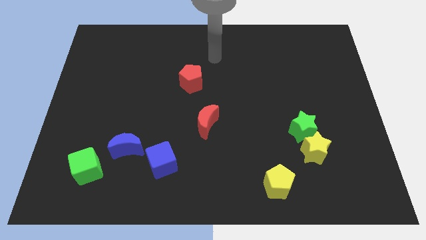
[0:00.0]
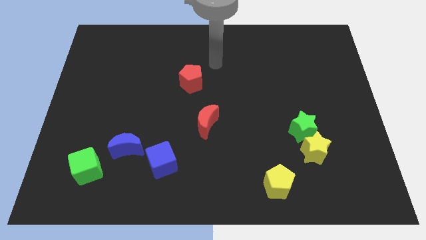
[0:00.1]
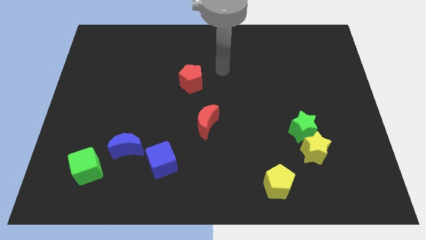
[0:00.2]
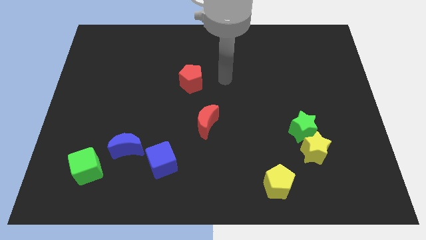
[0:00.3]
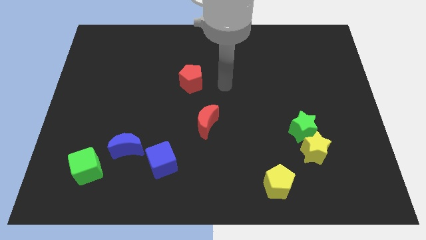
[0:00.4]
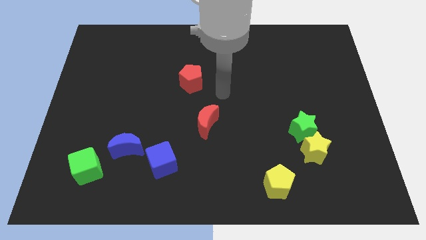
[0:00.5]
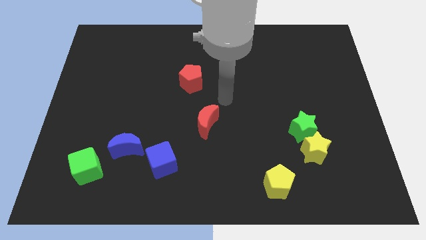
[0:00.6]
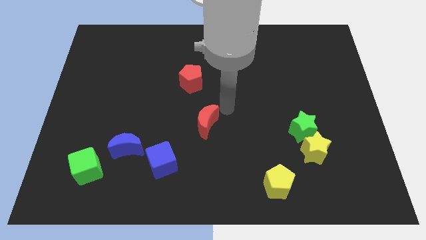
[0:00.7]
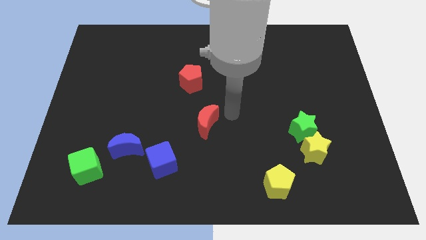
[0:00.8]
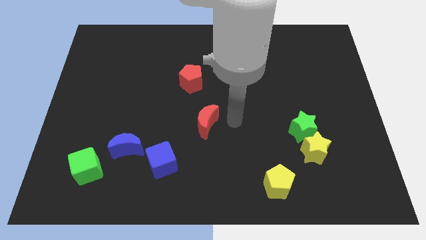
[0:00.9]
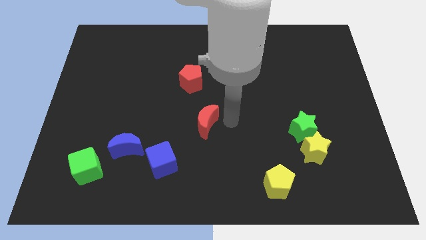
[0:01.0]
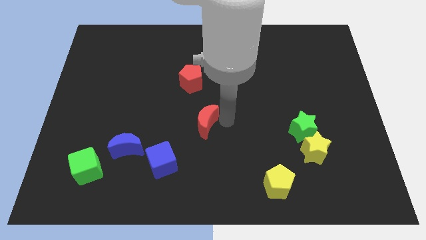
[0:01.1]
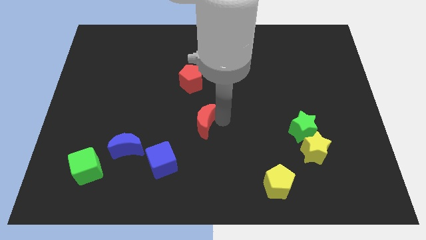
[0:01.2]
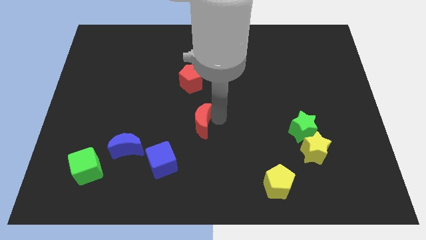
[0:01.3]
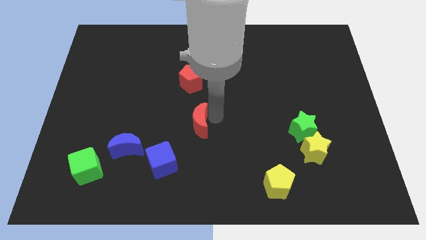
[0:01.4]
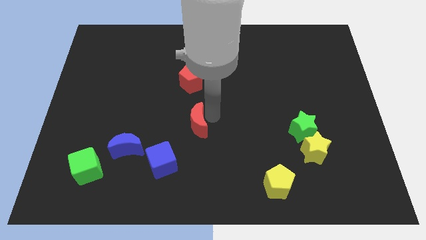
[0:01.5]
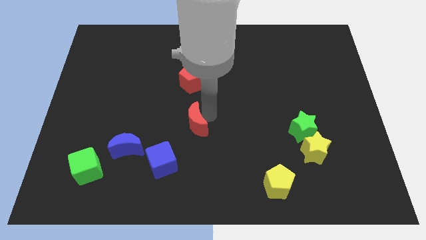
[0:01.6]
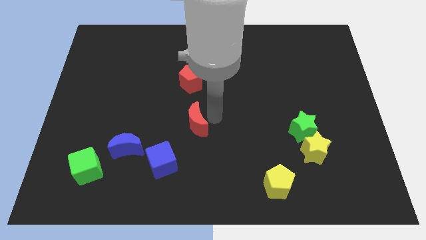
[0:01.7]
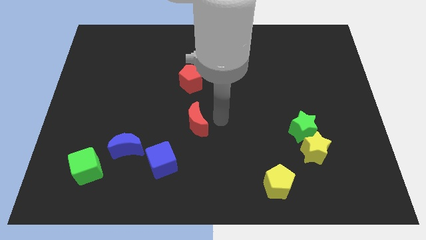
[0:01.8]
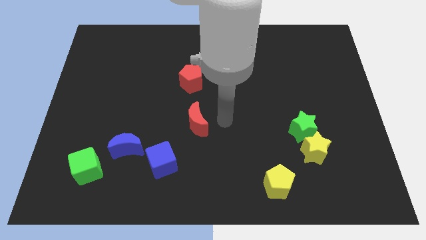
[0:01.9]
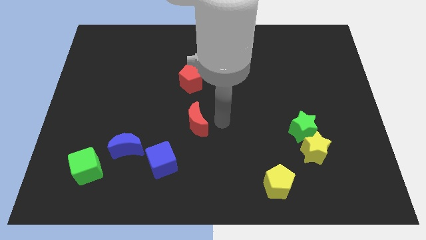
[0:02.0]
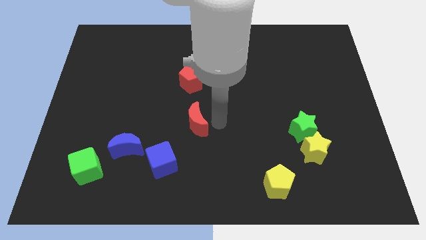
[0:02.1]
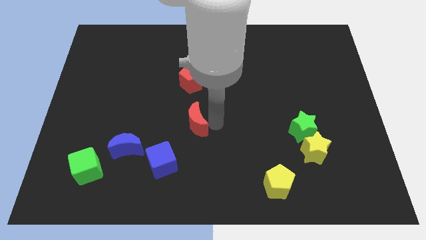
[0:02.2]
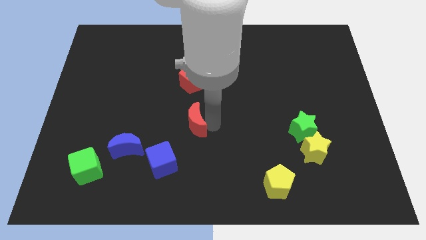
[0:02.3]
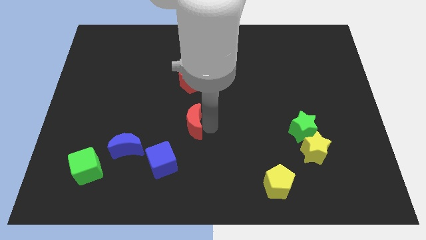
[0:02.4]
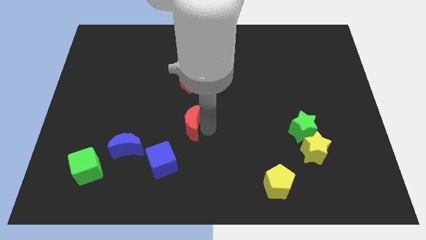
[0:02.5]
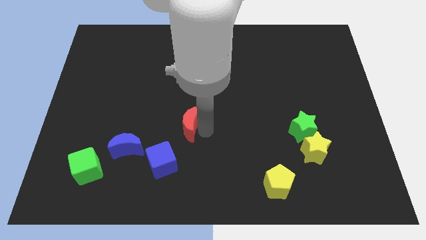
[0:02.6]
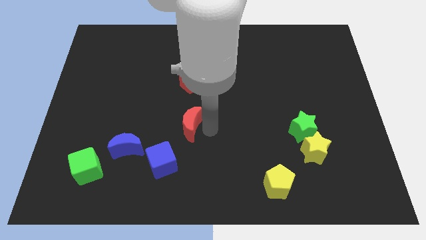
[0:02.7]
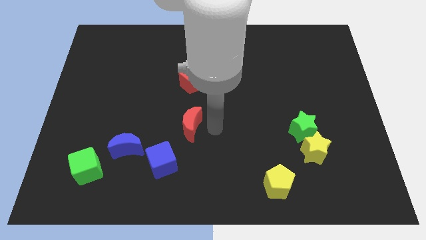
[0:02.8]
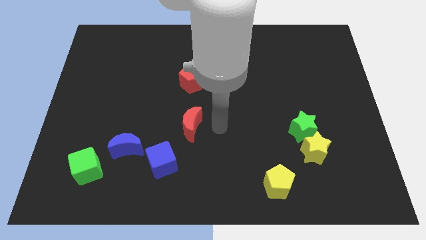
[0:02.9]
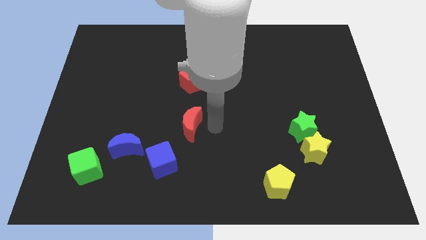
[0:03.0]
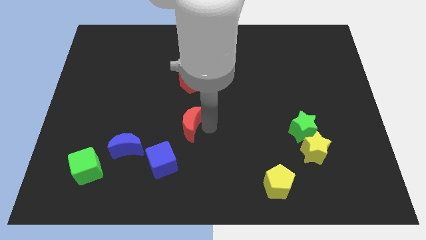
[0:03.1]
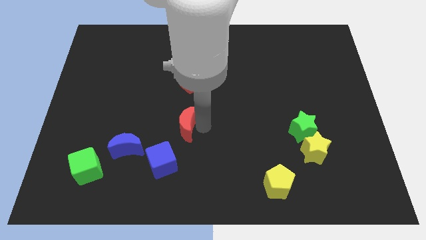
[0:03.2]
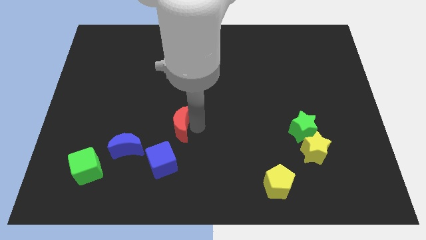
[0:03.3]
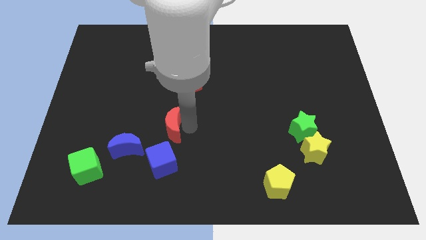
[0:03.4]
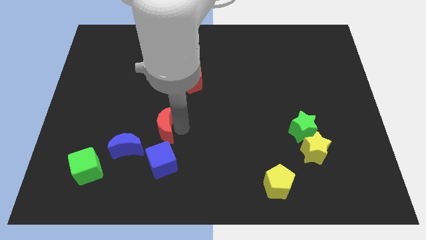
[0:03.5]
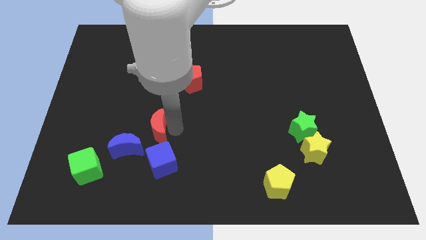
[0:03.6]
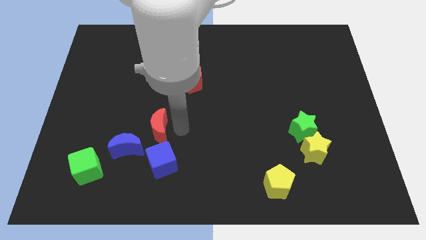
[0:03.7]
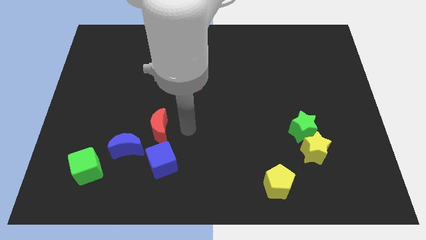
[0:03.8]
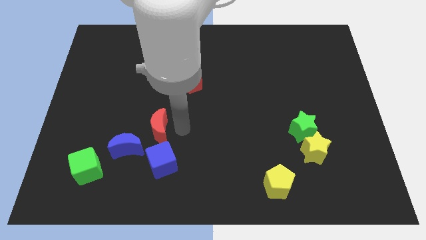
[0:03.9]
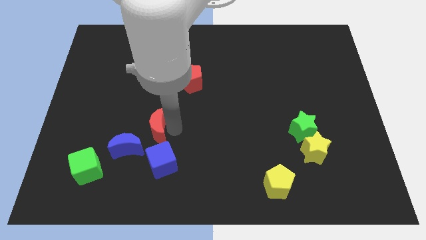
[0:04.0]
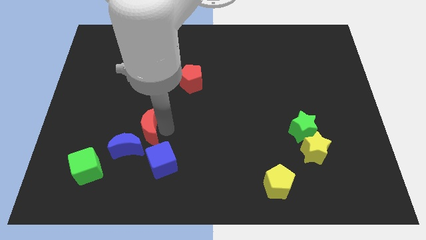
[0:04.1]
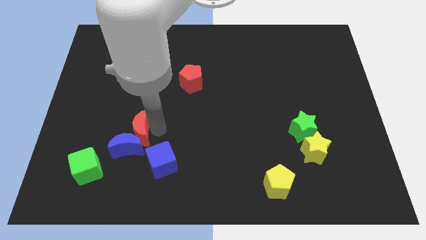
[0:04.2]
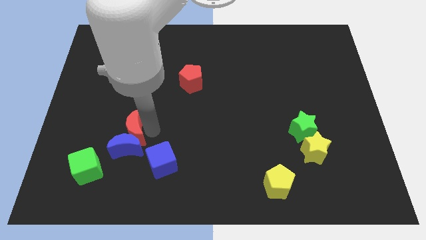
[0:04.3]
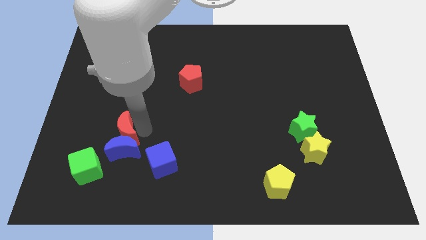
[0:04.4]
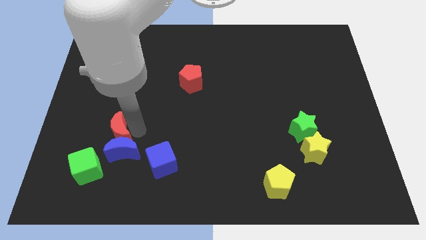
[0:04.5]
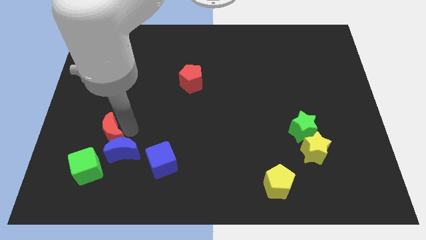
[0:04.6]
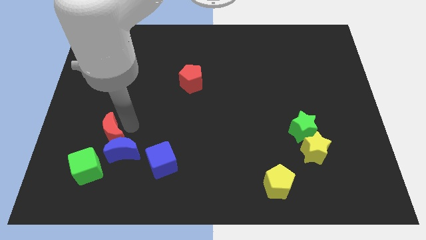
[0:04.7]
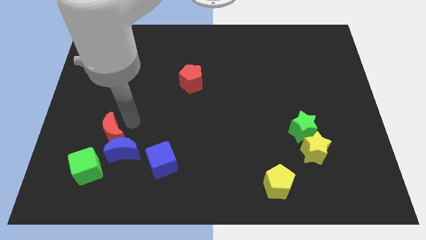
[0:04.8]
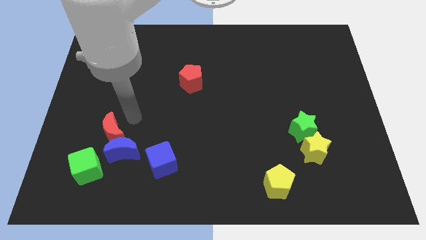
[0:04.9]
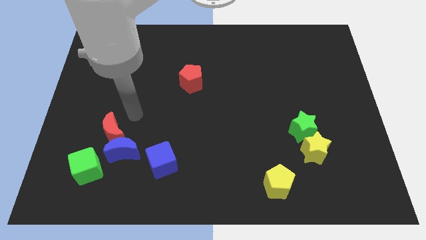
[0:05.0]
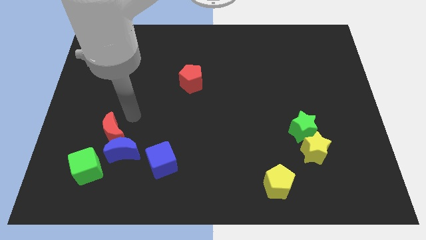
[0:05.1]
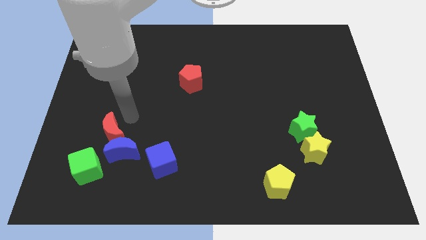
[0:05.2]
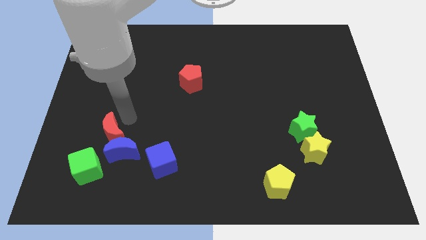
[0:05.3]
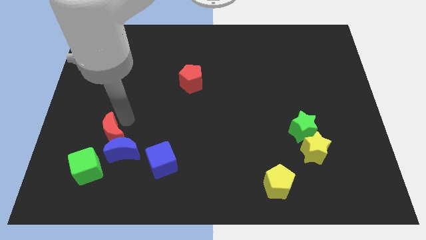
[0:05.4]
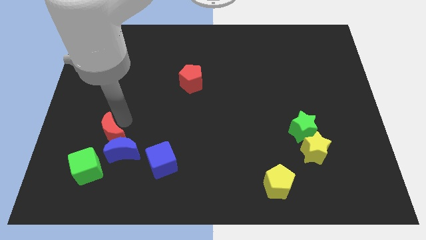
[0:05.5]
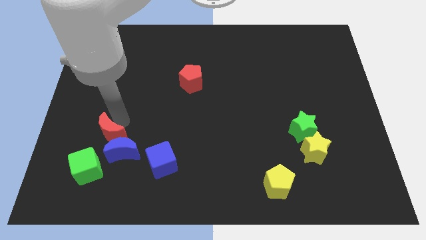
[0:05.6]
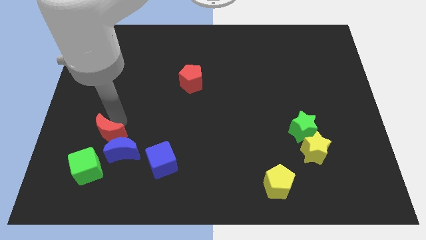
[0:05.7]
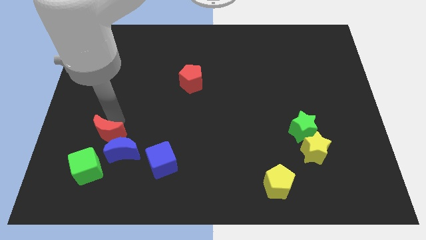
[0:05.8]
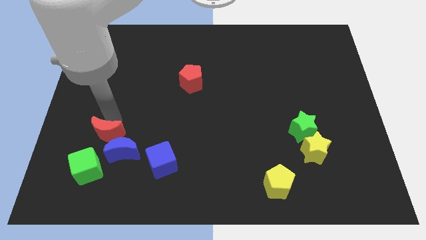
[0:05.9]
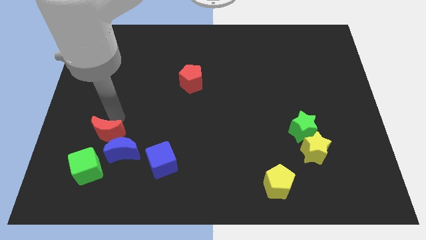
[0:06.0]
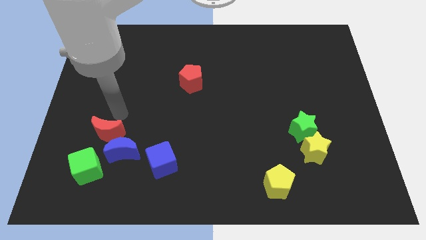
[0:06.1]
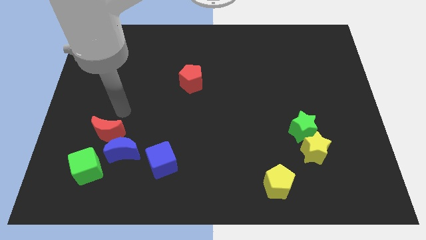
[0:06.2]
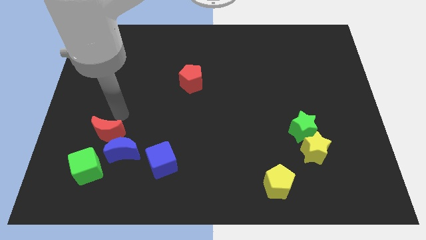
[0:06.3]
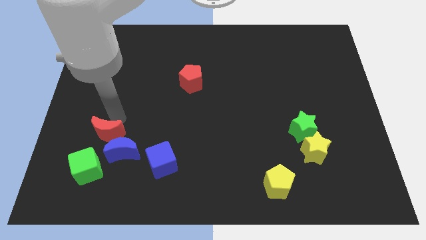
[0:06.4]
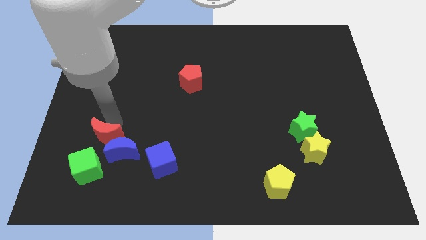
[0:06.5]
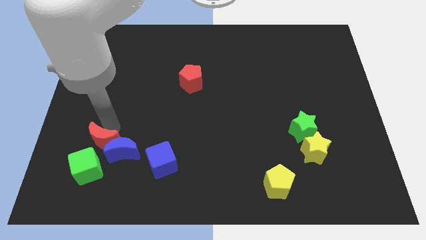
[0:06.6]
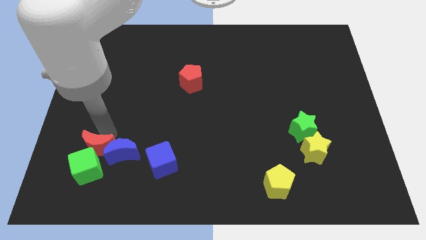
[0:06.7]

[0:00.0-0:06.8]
slide the red moon to the green cube

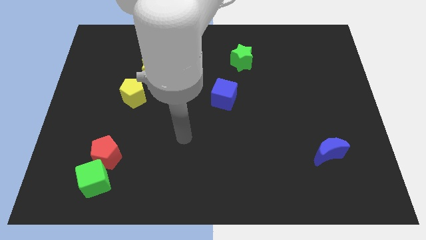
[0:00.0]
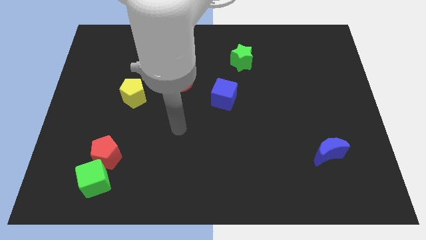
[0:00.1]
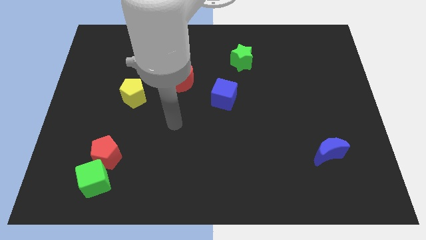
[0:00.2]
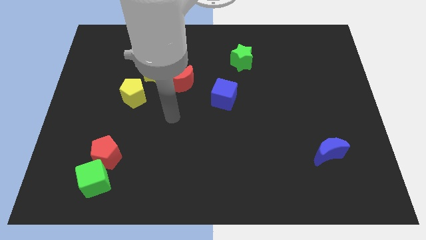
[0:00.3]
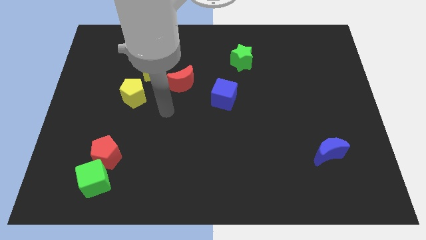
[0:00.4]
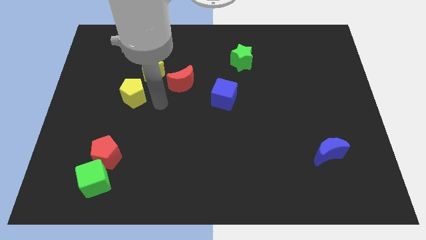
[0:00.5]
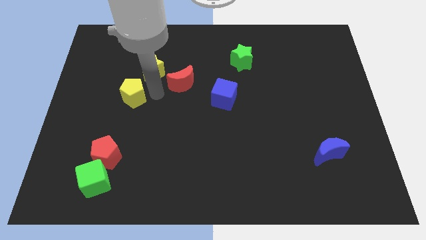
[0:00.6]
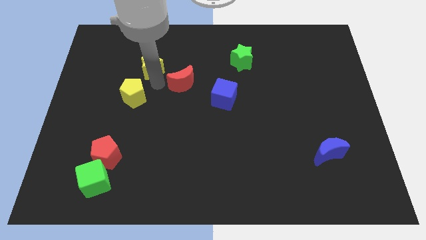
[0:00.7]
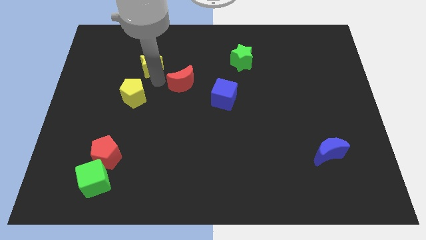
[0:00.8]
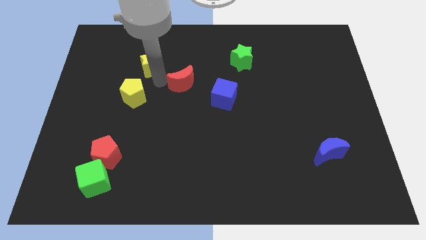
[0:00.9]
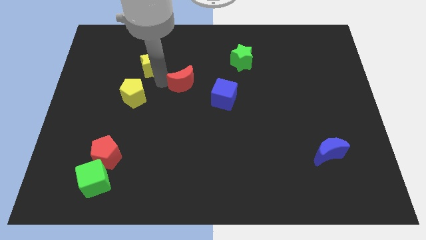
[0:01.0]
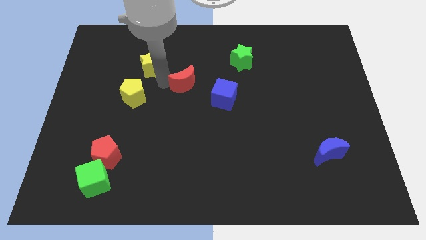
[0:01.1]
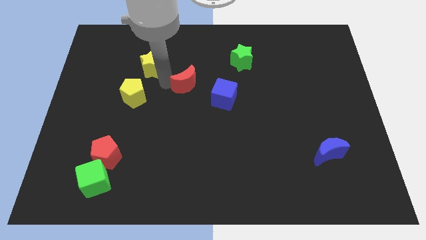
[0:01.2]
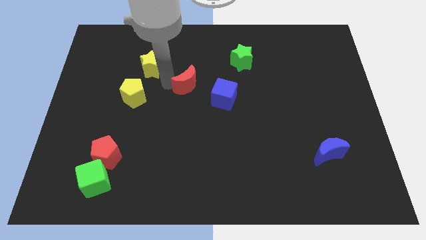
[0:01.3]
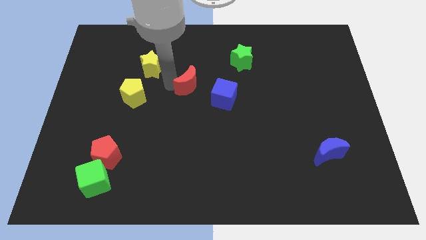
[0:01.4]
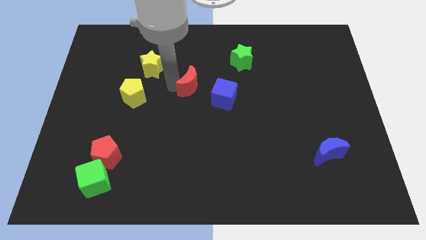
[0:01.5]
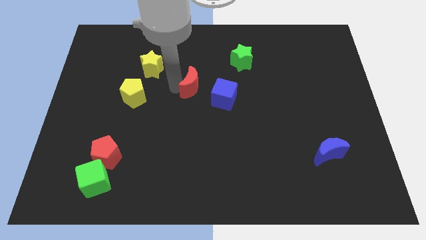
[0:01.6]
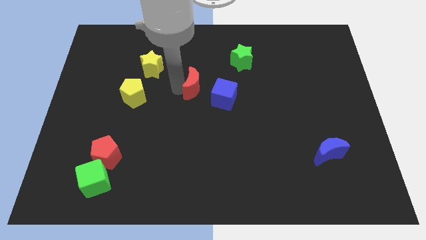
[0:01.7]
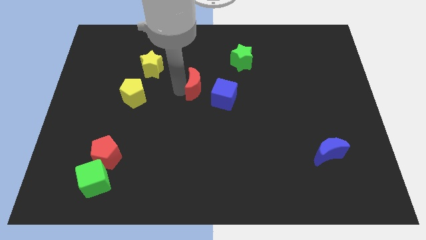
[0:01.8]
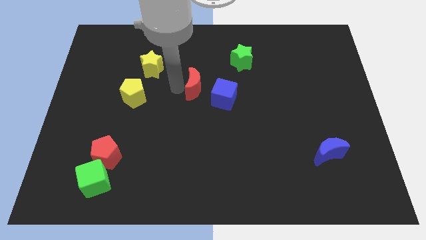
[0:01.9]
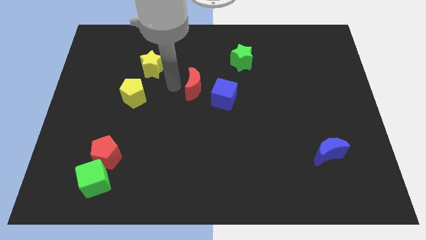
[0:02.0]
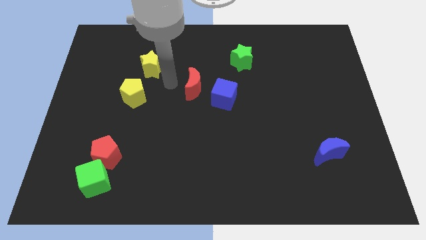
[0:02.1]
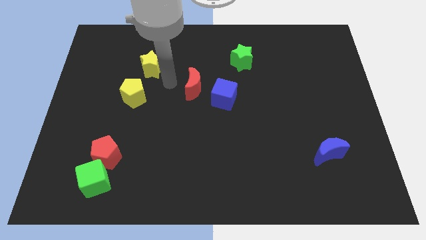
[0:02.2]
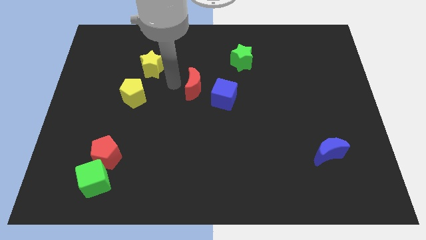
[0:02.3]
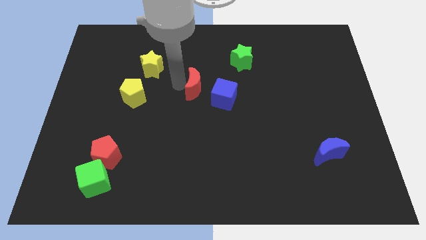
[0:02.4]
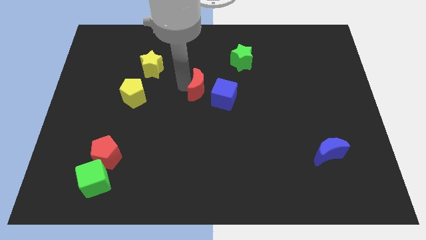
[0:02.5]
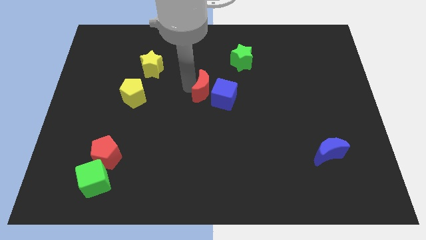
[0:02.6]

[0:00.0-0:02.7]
slide the red moon towards the blue cube
